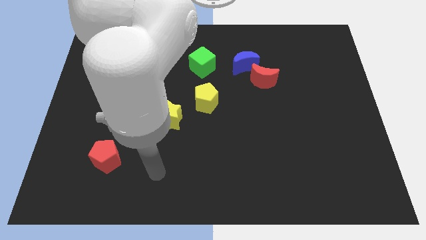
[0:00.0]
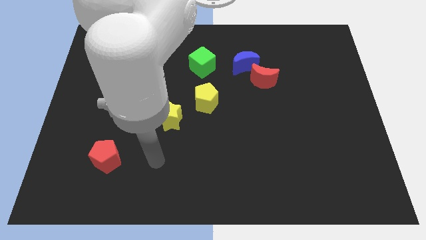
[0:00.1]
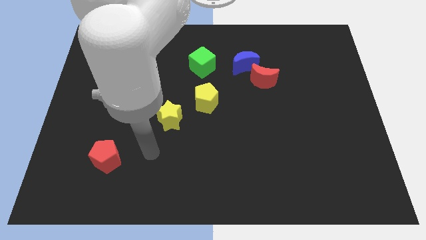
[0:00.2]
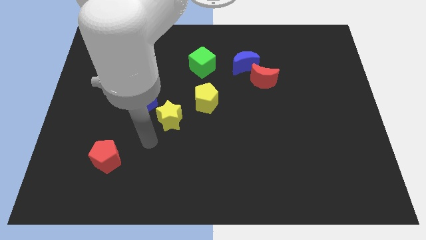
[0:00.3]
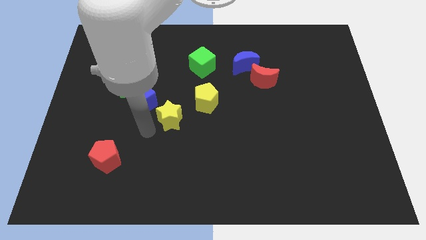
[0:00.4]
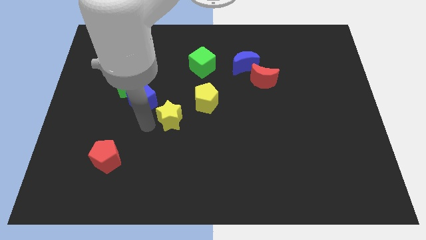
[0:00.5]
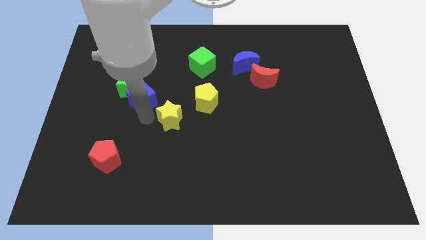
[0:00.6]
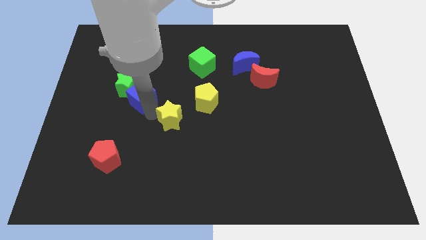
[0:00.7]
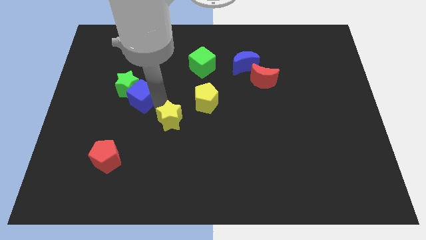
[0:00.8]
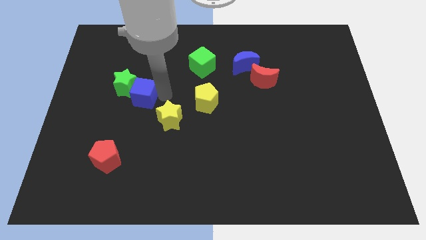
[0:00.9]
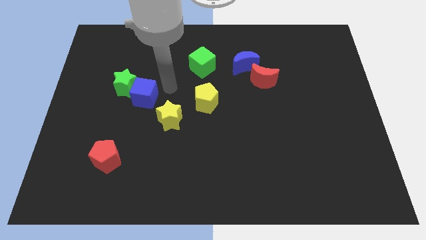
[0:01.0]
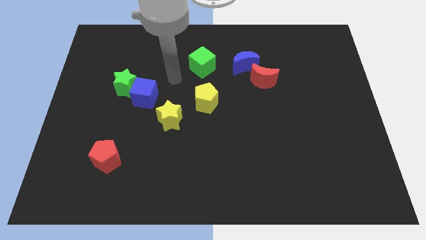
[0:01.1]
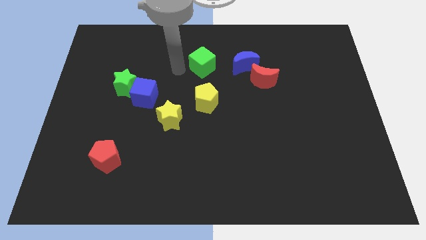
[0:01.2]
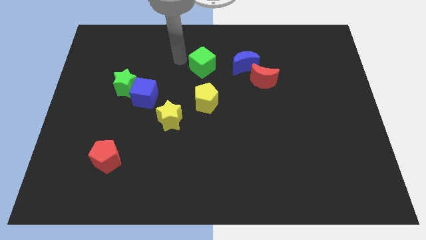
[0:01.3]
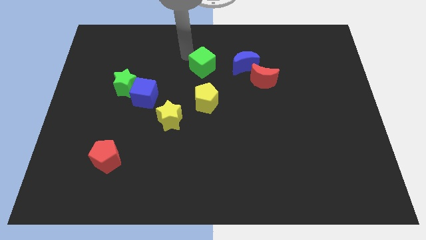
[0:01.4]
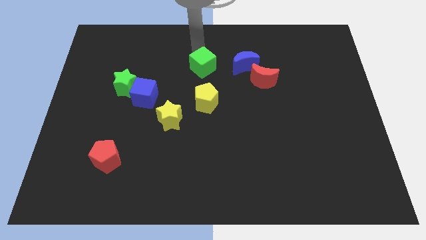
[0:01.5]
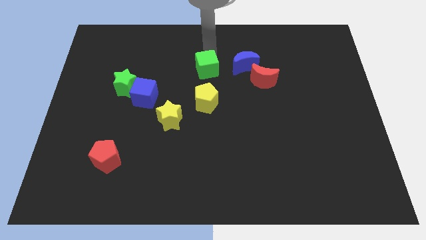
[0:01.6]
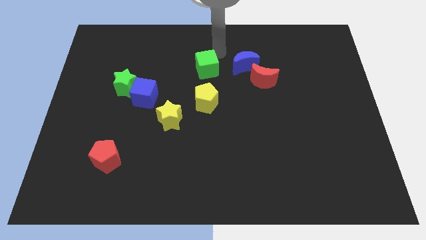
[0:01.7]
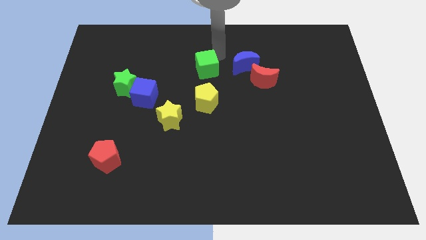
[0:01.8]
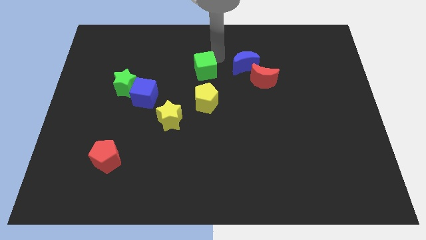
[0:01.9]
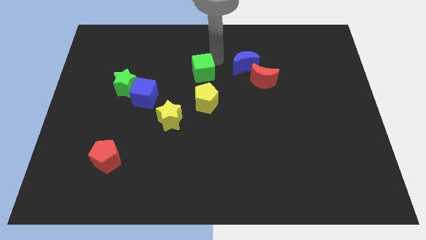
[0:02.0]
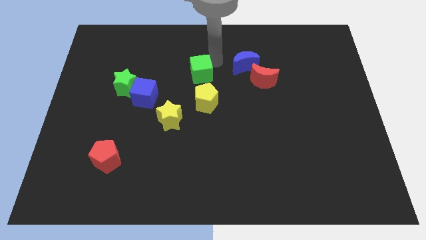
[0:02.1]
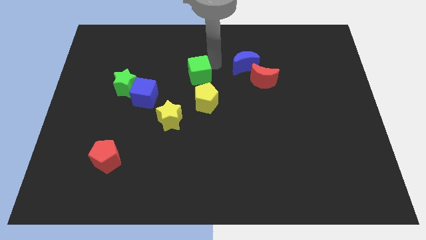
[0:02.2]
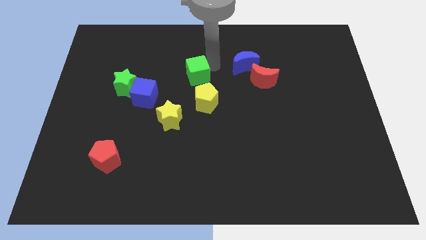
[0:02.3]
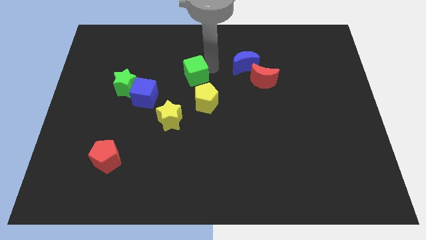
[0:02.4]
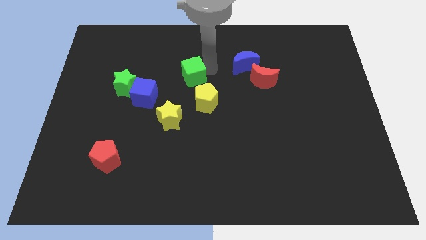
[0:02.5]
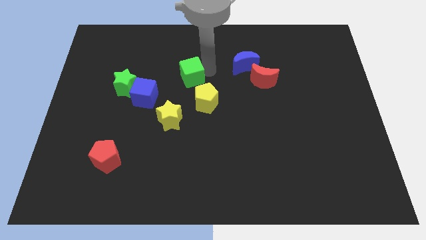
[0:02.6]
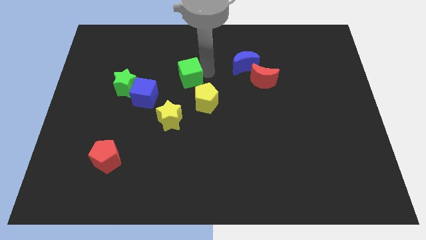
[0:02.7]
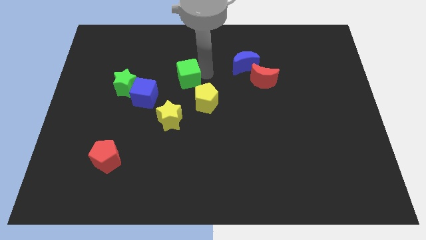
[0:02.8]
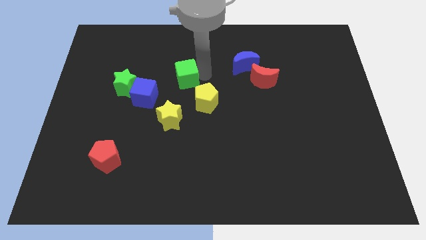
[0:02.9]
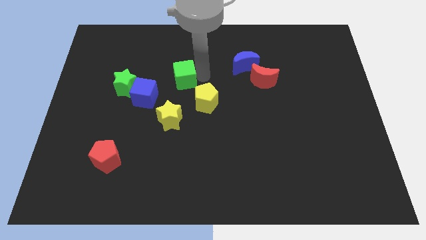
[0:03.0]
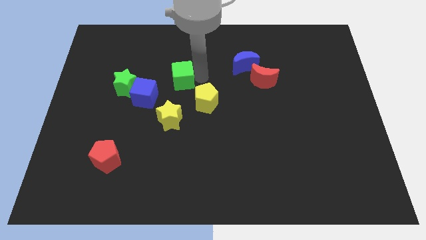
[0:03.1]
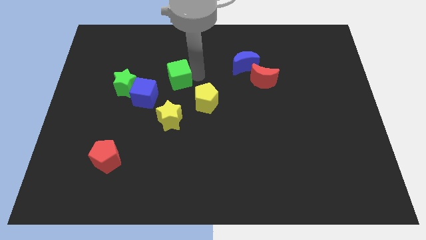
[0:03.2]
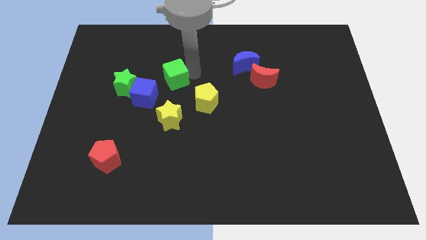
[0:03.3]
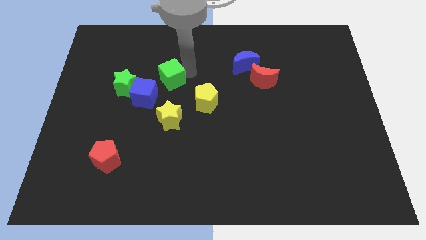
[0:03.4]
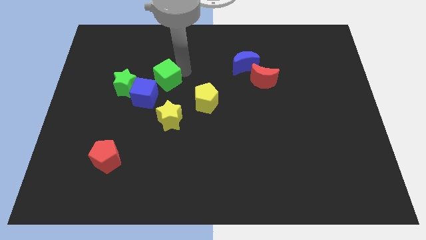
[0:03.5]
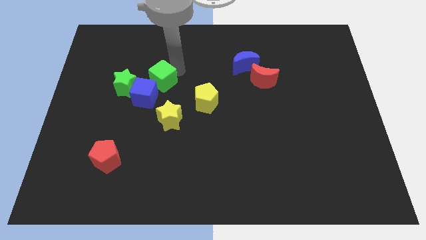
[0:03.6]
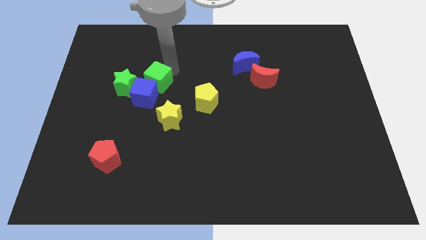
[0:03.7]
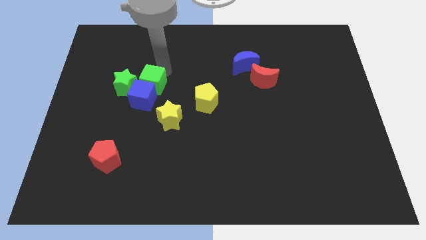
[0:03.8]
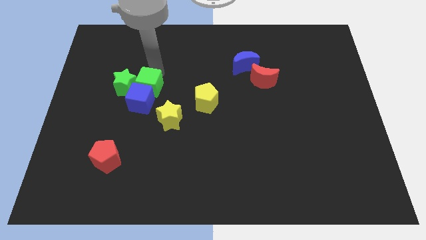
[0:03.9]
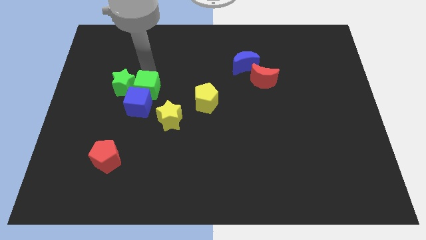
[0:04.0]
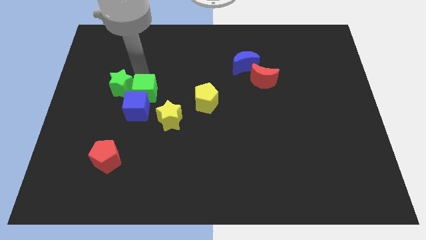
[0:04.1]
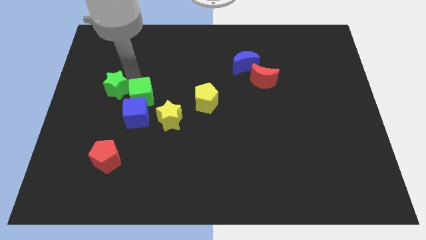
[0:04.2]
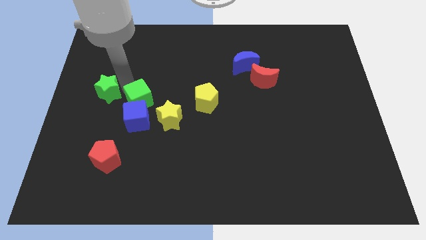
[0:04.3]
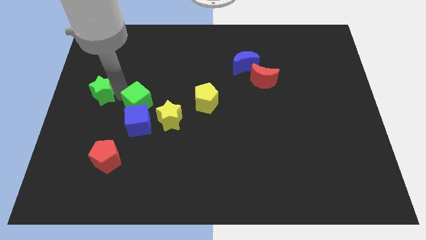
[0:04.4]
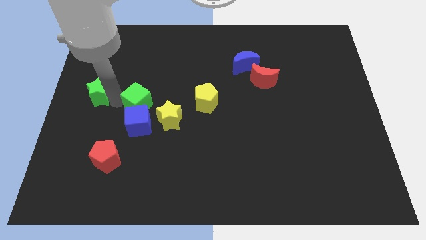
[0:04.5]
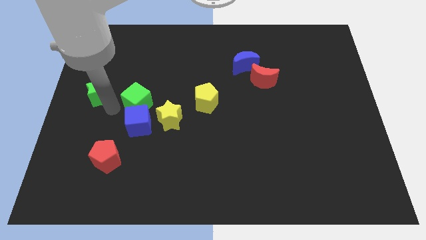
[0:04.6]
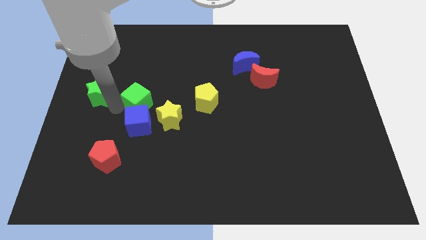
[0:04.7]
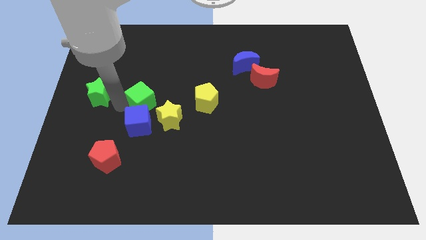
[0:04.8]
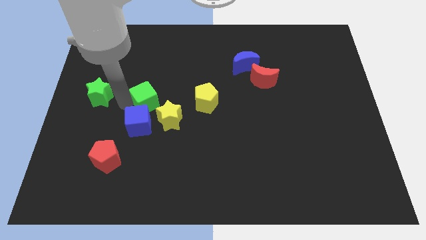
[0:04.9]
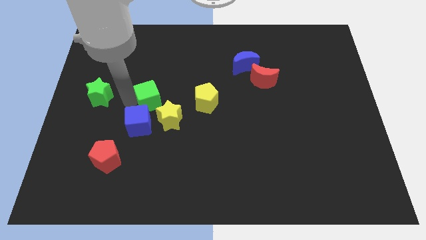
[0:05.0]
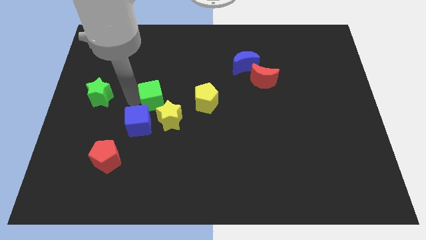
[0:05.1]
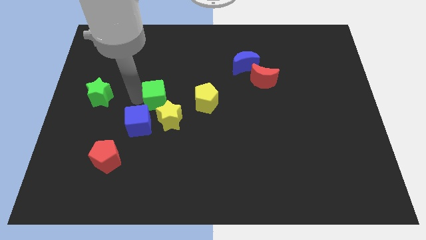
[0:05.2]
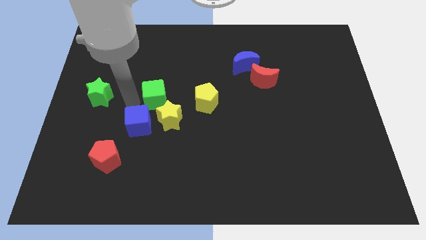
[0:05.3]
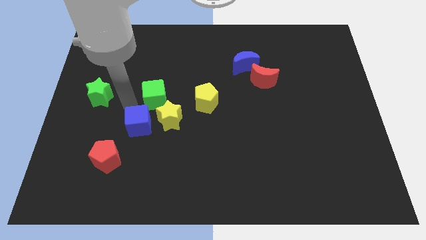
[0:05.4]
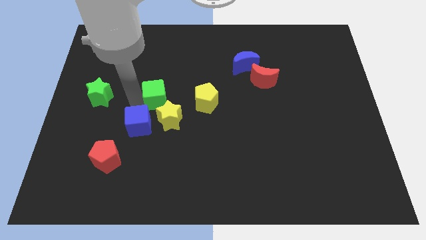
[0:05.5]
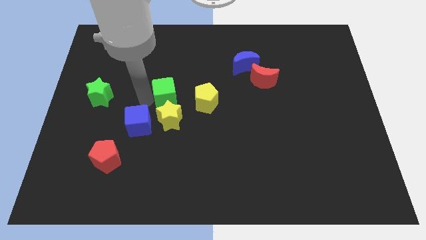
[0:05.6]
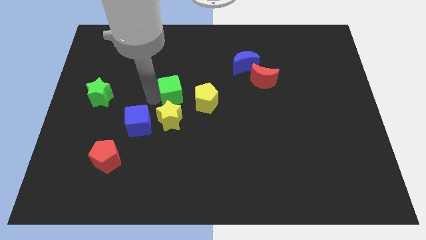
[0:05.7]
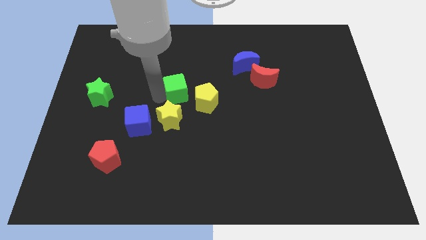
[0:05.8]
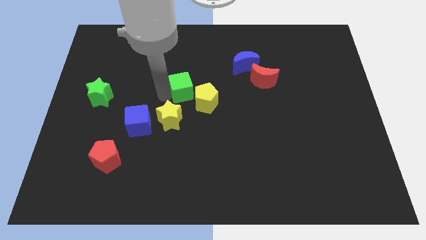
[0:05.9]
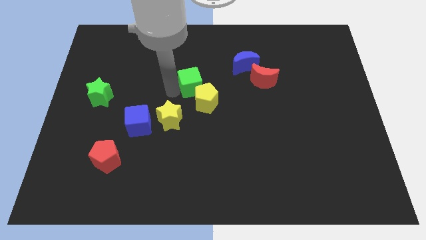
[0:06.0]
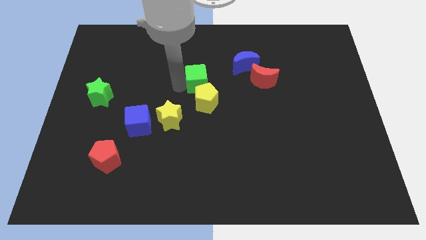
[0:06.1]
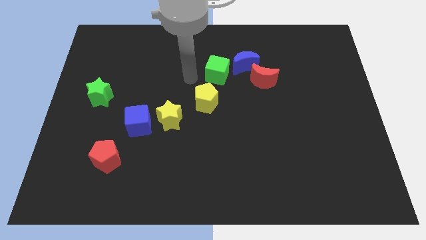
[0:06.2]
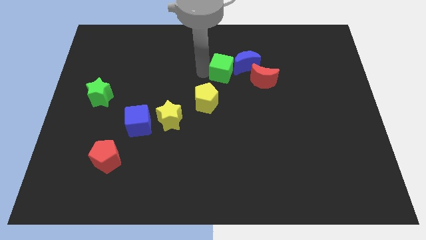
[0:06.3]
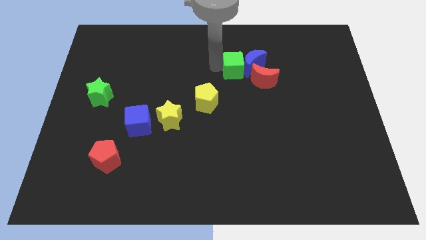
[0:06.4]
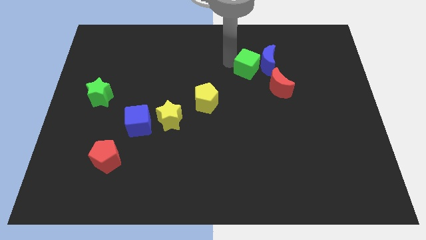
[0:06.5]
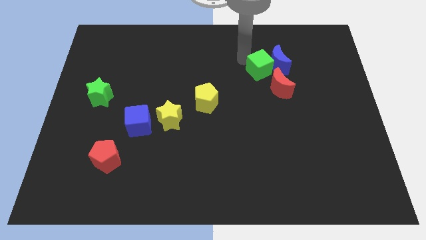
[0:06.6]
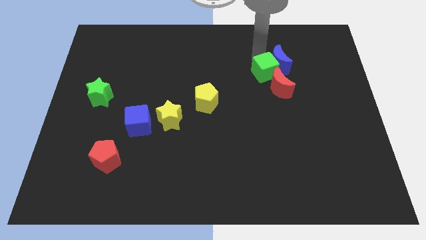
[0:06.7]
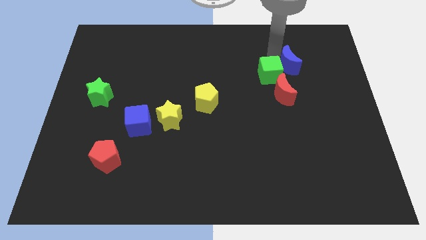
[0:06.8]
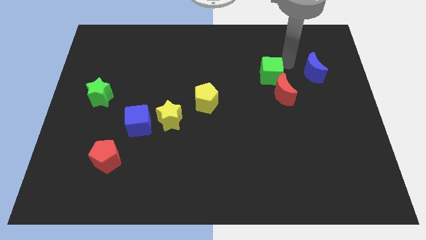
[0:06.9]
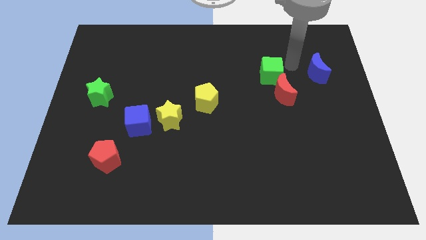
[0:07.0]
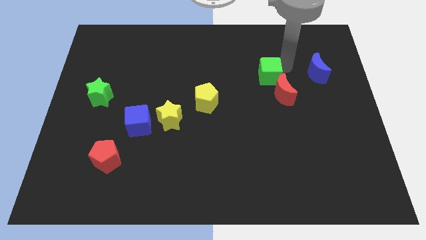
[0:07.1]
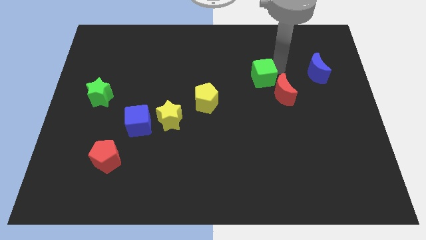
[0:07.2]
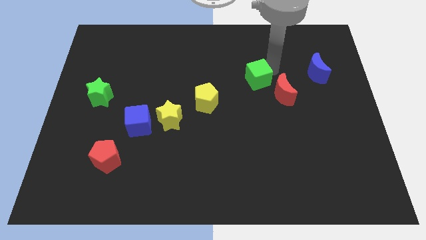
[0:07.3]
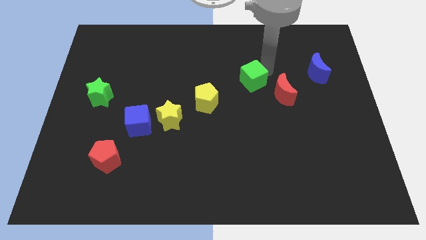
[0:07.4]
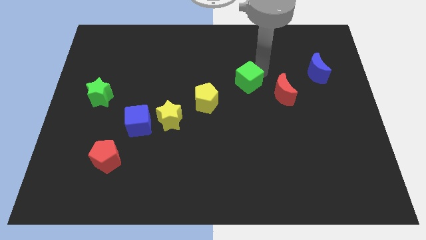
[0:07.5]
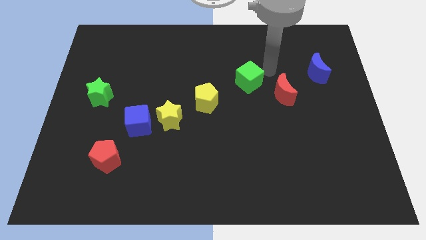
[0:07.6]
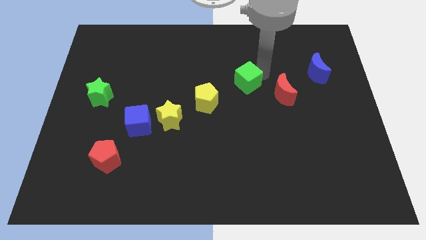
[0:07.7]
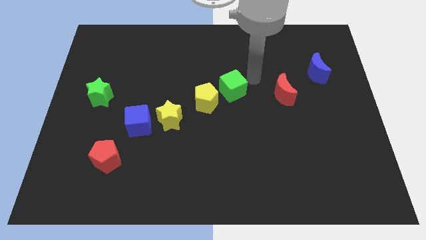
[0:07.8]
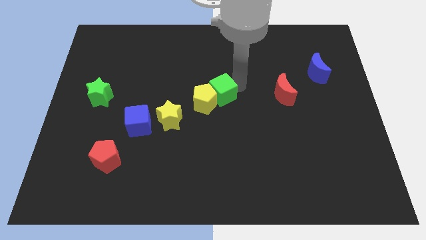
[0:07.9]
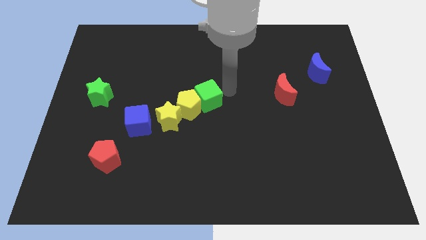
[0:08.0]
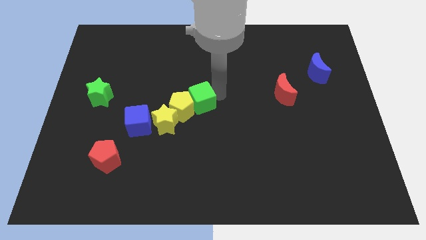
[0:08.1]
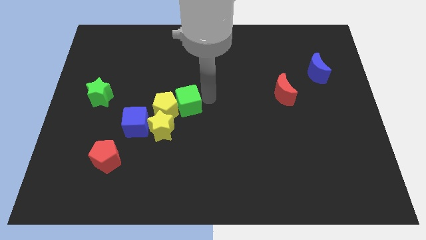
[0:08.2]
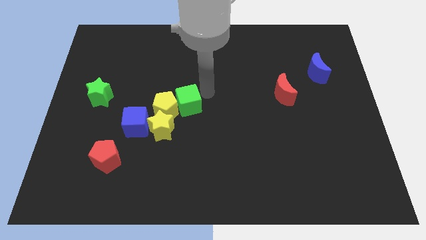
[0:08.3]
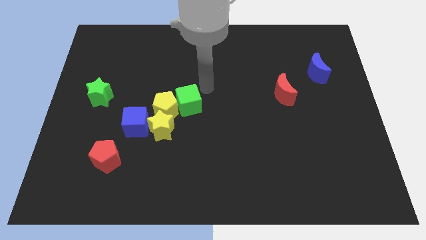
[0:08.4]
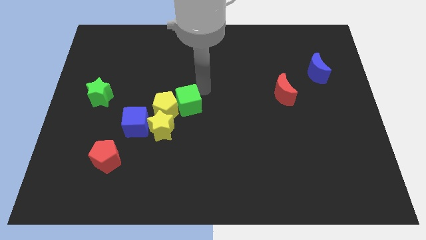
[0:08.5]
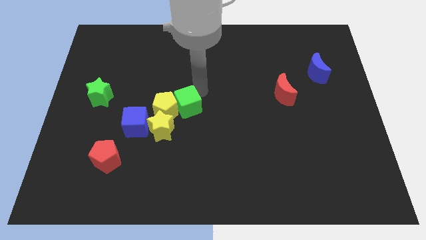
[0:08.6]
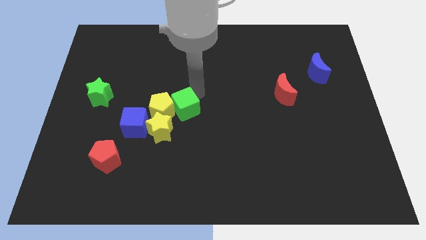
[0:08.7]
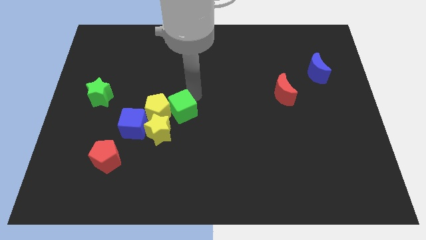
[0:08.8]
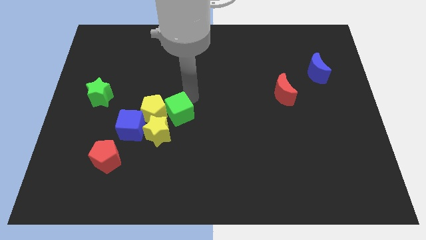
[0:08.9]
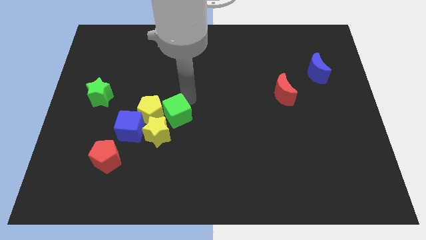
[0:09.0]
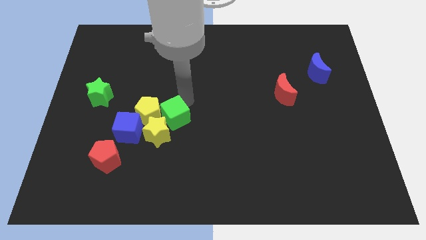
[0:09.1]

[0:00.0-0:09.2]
move the green cube next to the yellow star
